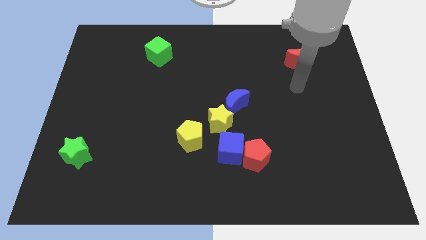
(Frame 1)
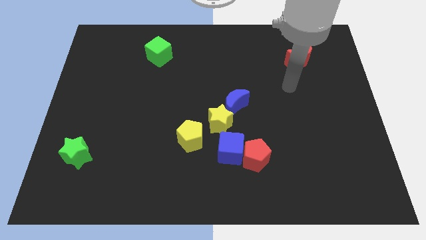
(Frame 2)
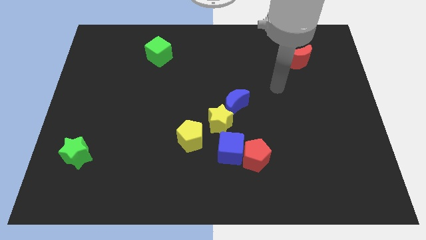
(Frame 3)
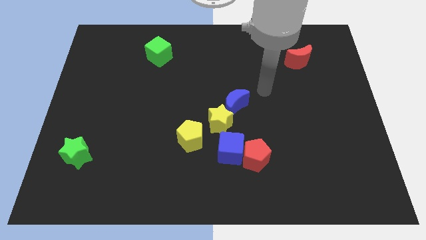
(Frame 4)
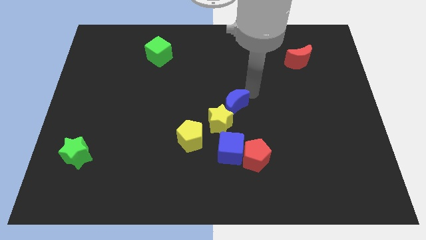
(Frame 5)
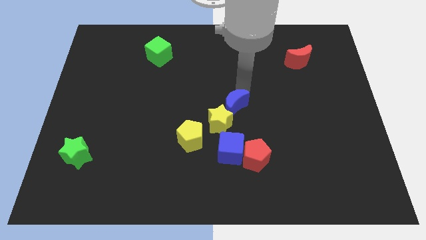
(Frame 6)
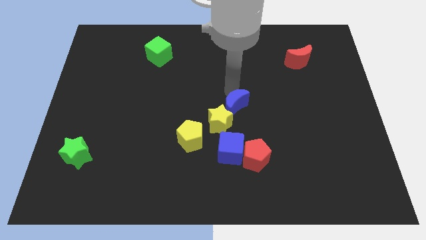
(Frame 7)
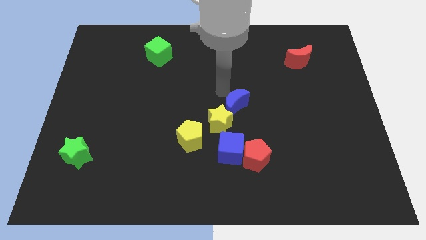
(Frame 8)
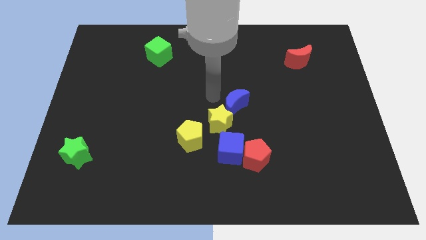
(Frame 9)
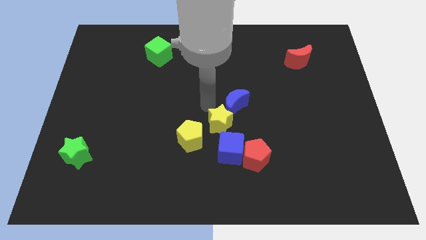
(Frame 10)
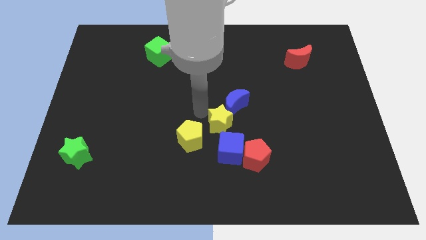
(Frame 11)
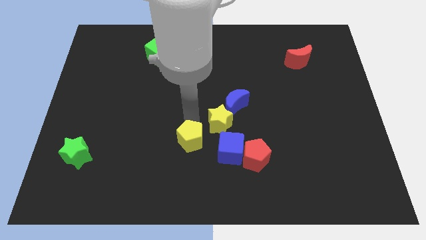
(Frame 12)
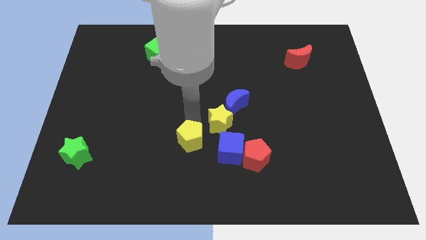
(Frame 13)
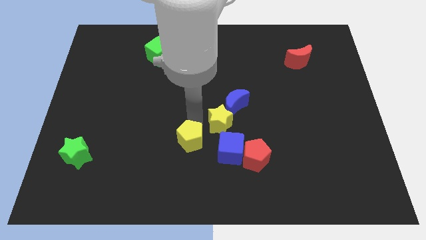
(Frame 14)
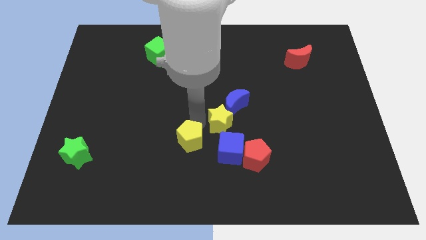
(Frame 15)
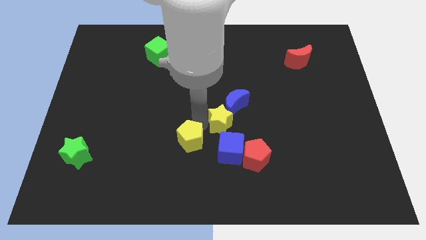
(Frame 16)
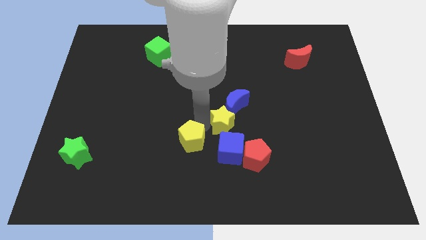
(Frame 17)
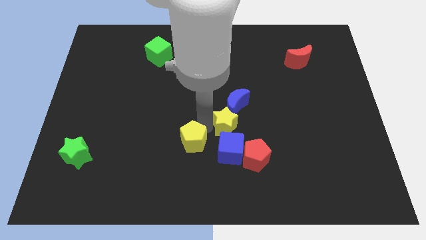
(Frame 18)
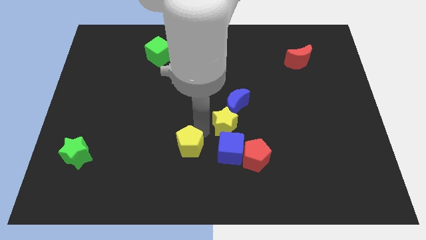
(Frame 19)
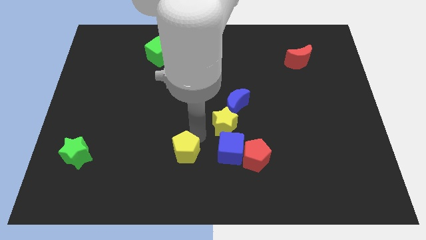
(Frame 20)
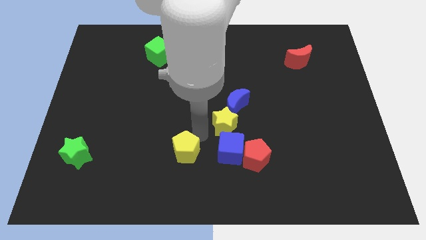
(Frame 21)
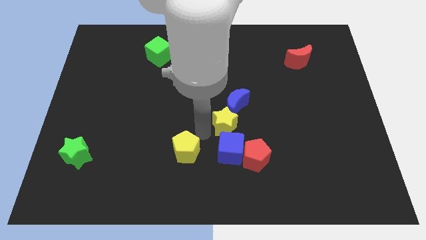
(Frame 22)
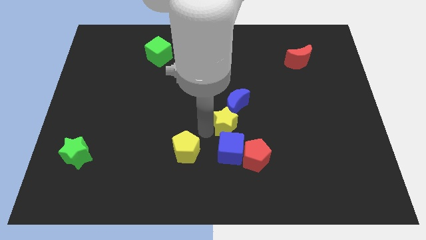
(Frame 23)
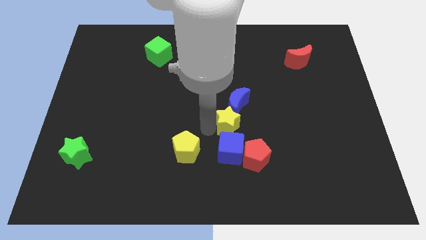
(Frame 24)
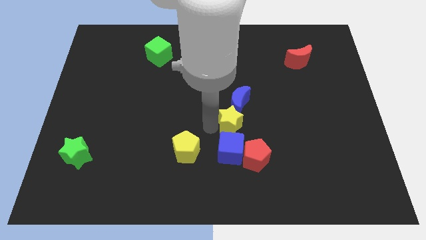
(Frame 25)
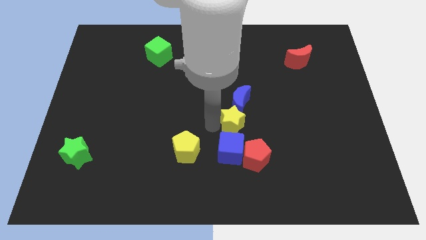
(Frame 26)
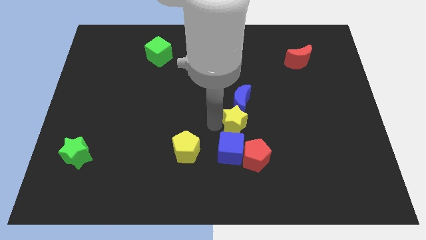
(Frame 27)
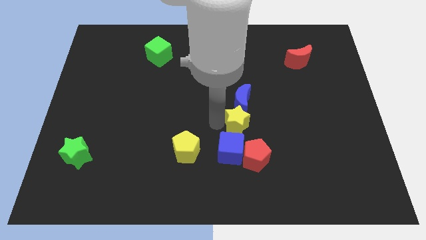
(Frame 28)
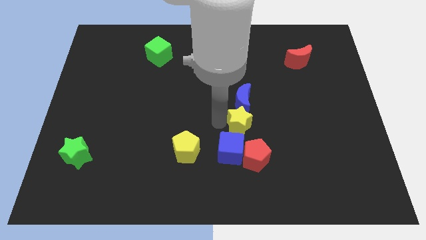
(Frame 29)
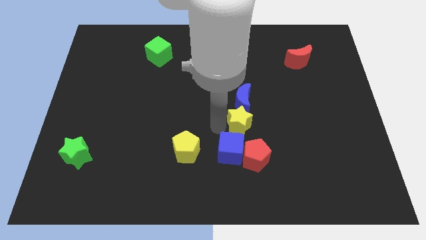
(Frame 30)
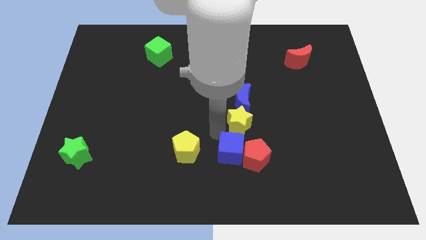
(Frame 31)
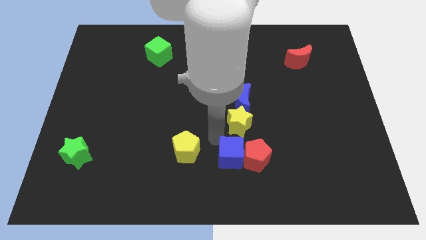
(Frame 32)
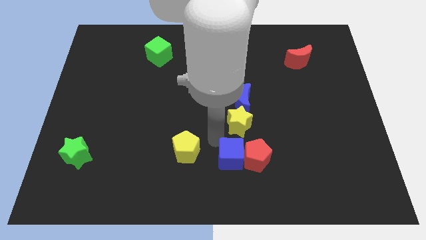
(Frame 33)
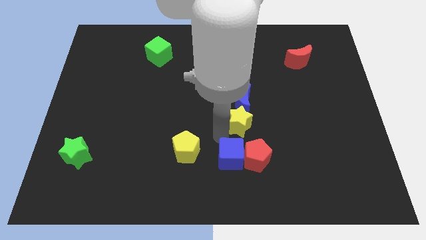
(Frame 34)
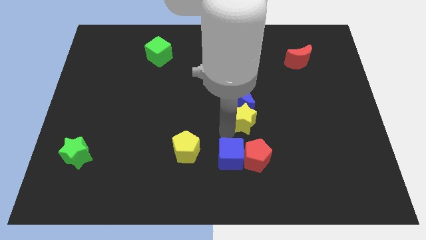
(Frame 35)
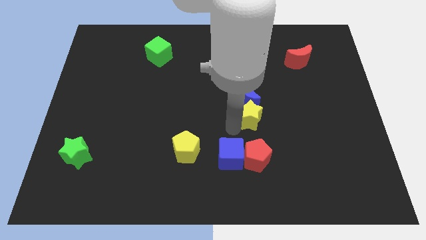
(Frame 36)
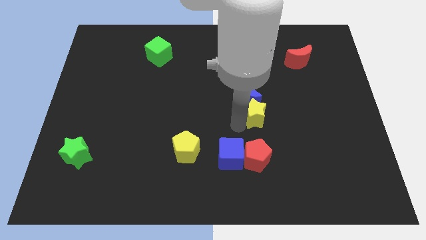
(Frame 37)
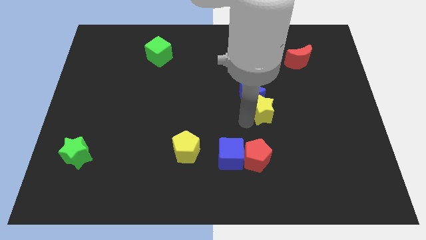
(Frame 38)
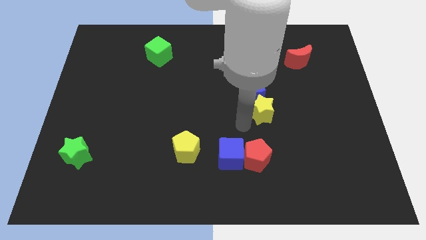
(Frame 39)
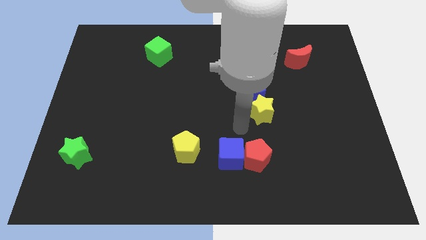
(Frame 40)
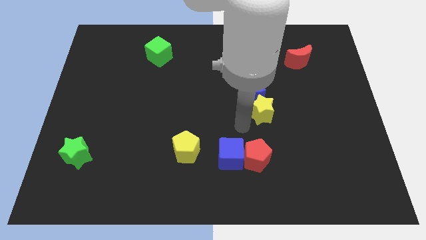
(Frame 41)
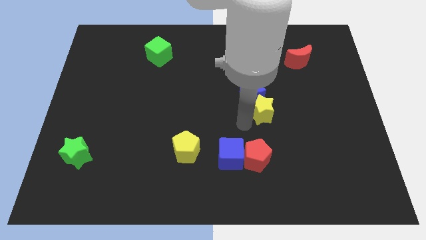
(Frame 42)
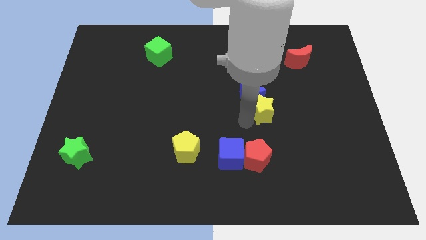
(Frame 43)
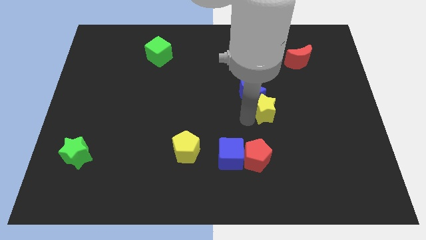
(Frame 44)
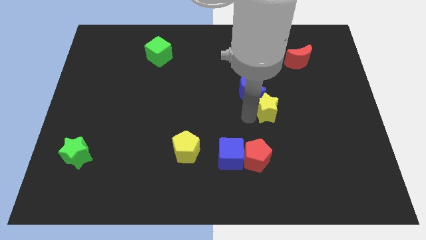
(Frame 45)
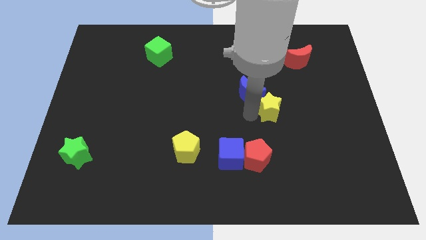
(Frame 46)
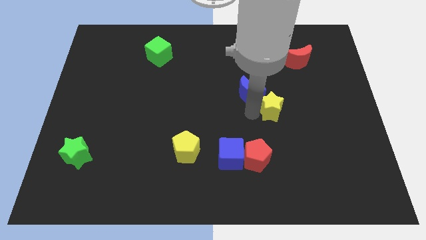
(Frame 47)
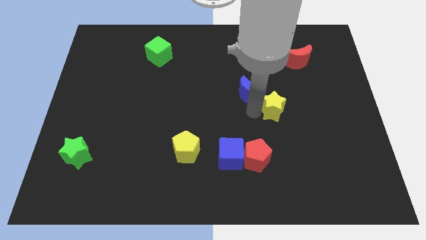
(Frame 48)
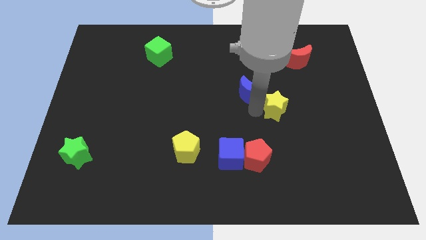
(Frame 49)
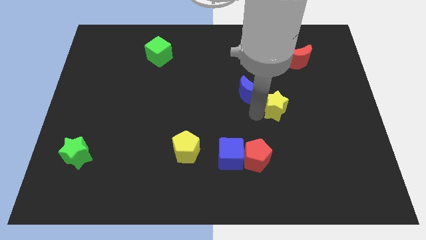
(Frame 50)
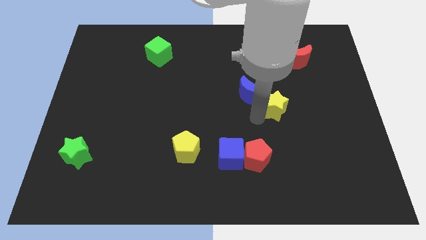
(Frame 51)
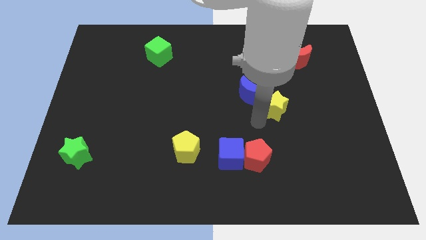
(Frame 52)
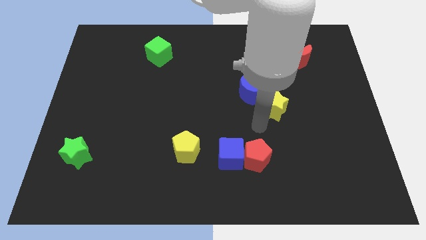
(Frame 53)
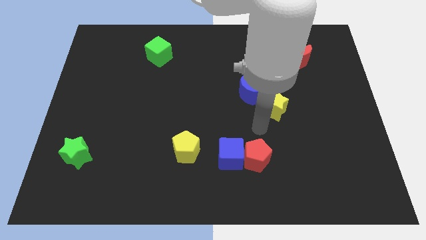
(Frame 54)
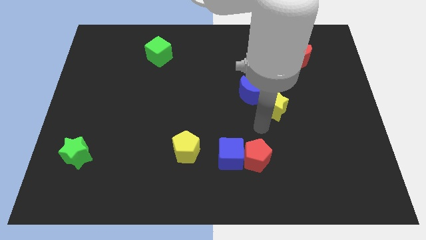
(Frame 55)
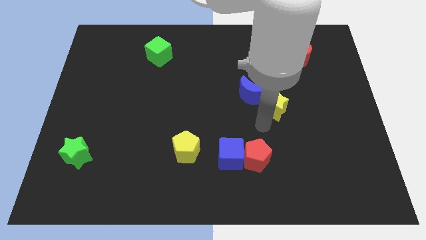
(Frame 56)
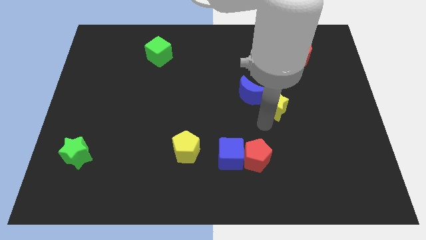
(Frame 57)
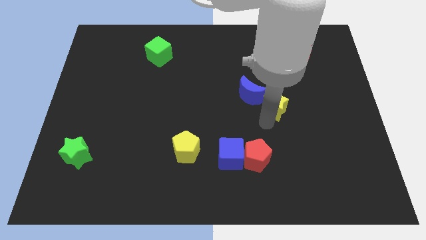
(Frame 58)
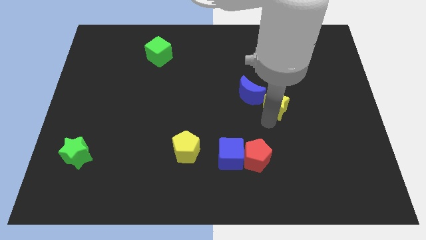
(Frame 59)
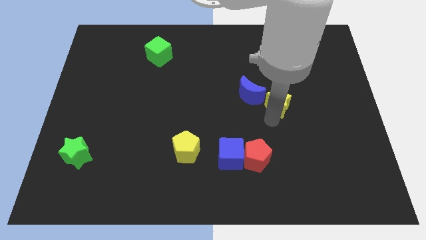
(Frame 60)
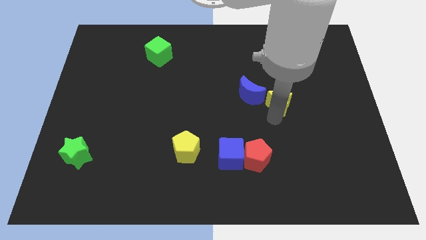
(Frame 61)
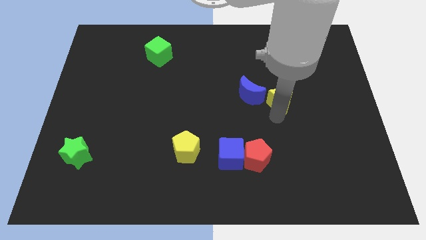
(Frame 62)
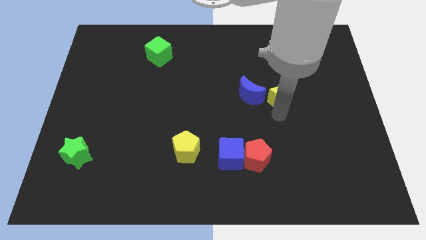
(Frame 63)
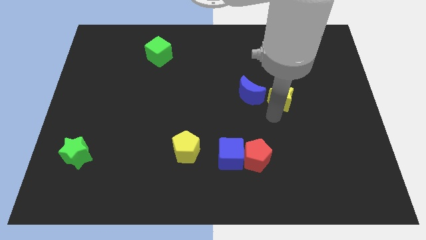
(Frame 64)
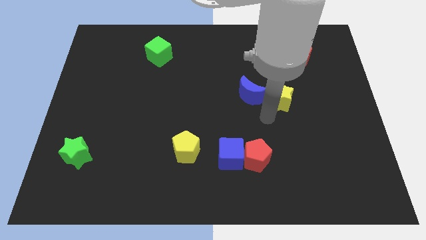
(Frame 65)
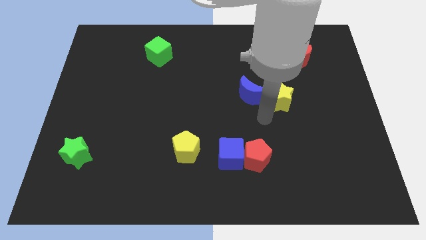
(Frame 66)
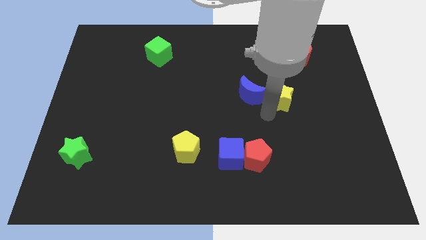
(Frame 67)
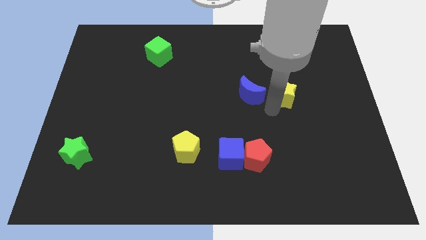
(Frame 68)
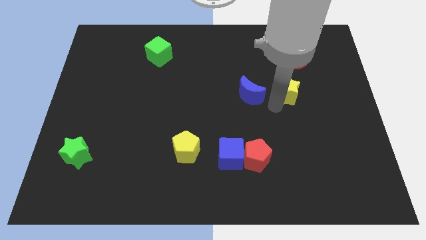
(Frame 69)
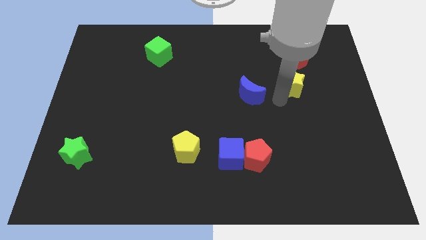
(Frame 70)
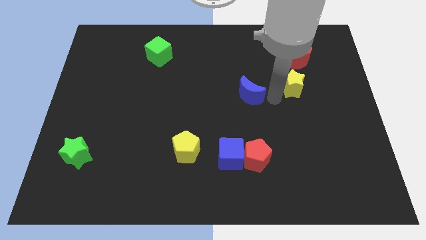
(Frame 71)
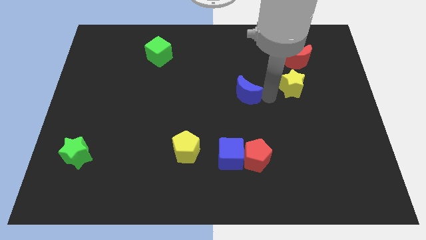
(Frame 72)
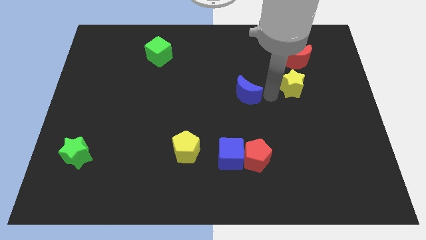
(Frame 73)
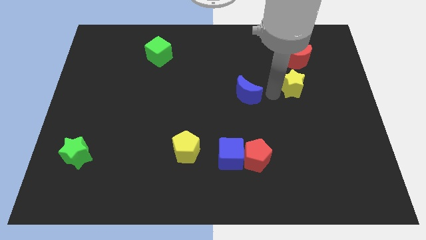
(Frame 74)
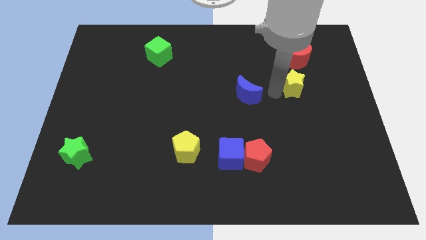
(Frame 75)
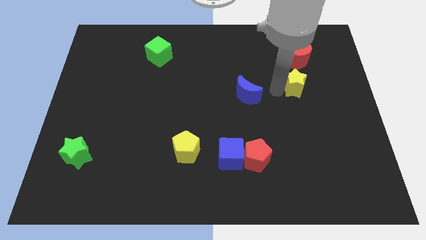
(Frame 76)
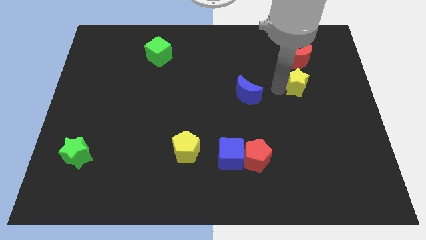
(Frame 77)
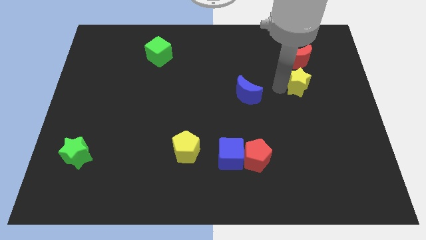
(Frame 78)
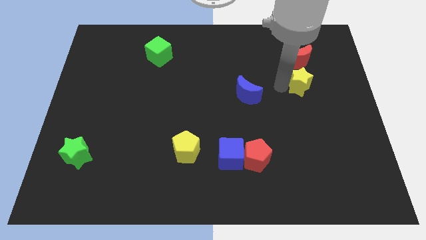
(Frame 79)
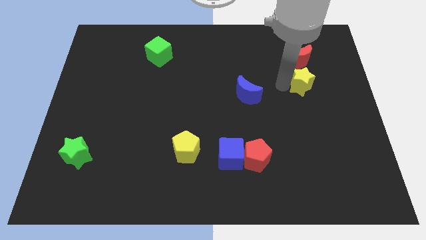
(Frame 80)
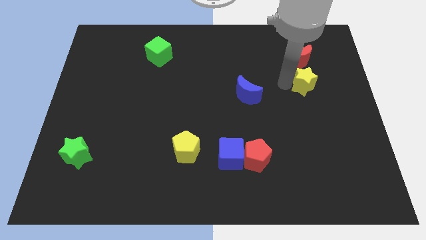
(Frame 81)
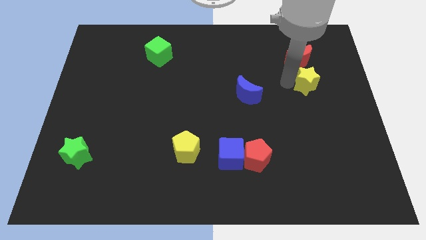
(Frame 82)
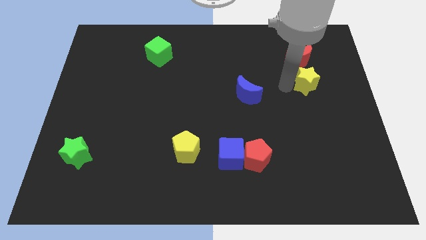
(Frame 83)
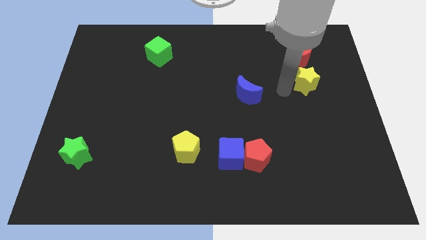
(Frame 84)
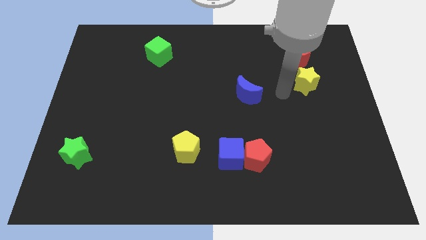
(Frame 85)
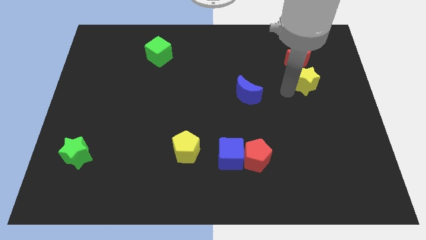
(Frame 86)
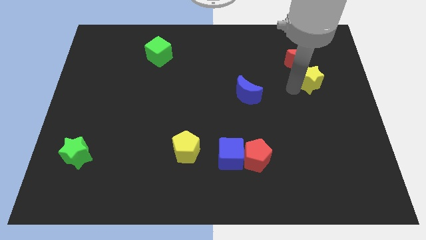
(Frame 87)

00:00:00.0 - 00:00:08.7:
move the yellow star to the bottom right side of the red moon
